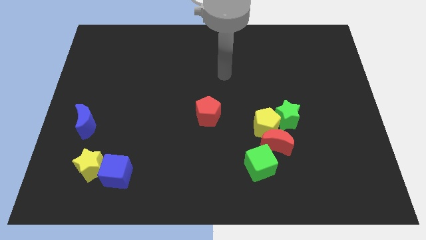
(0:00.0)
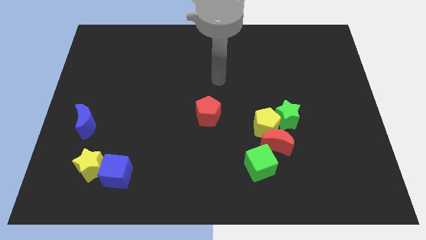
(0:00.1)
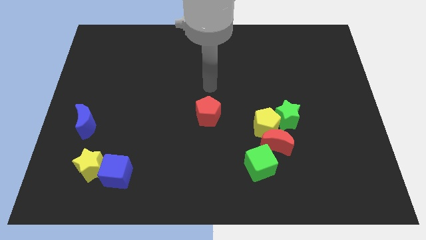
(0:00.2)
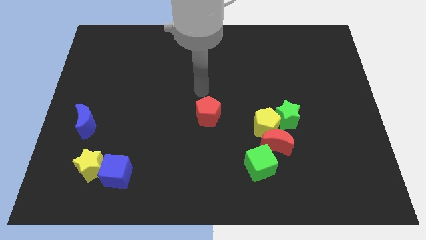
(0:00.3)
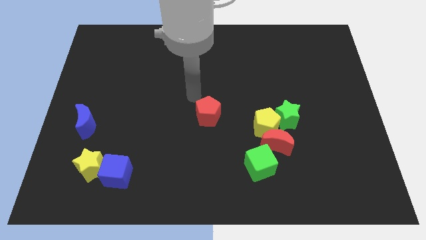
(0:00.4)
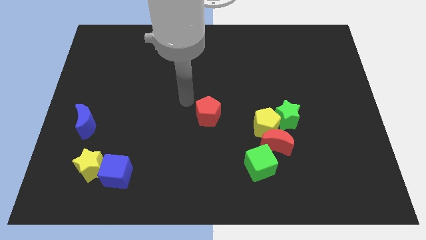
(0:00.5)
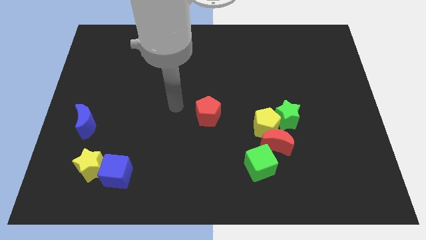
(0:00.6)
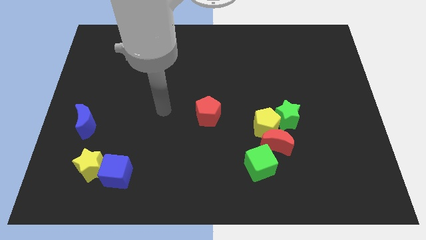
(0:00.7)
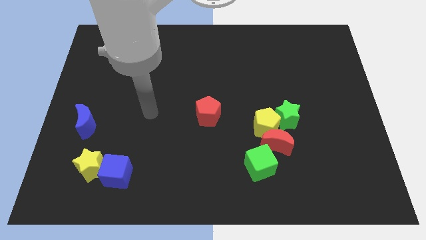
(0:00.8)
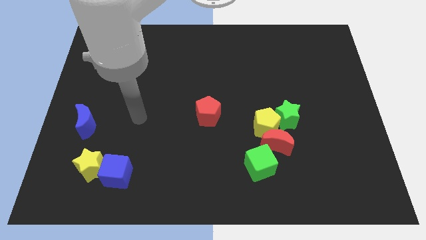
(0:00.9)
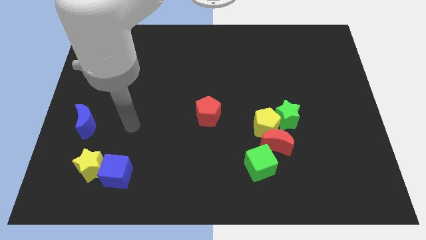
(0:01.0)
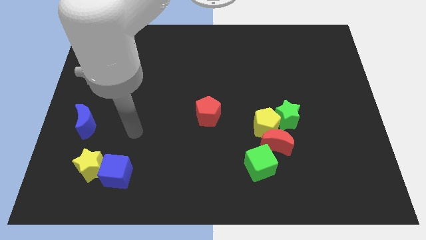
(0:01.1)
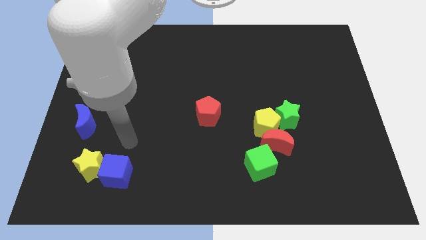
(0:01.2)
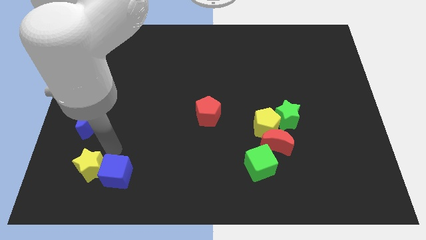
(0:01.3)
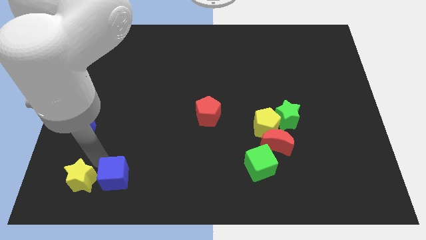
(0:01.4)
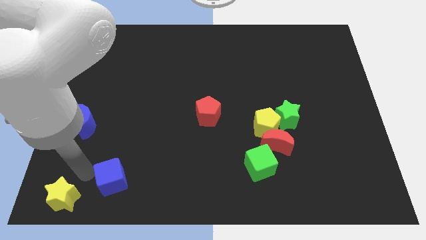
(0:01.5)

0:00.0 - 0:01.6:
move the blue cube away from the yellow star

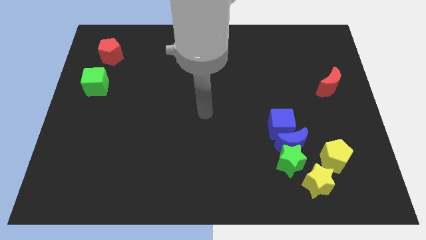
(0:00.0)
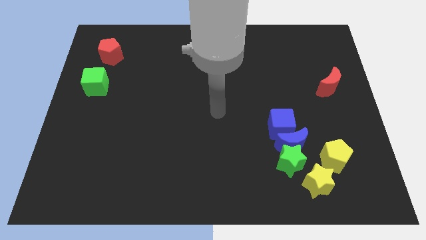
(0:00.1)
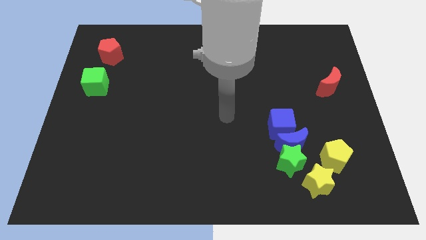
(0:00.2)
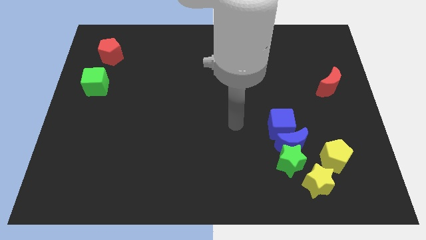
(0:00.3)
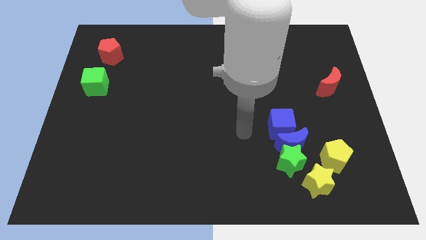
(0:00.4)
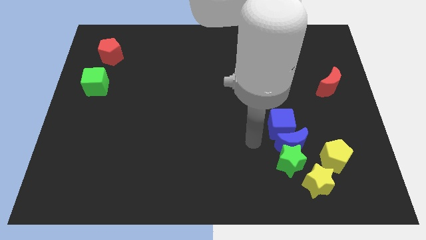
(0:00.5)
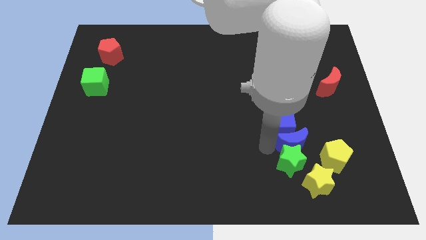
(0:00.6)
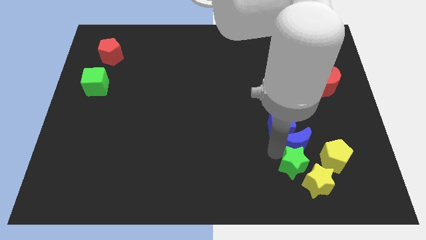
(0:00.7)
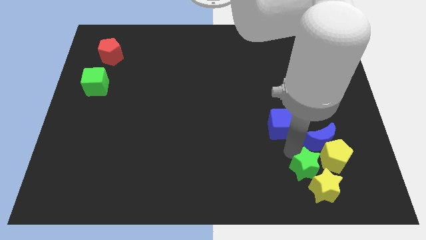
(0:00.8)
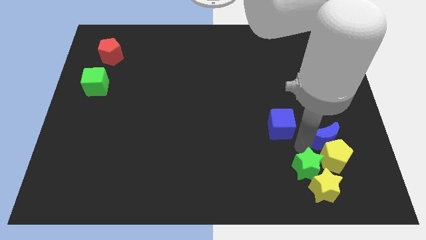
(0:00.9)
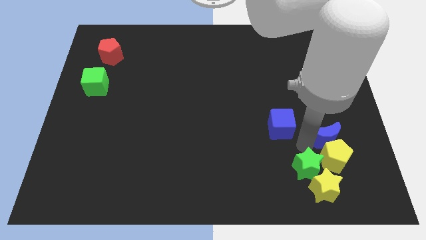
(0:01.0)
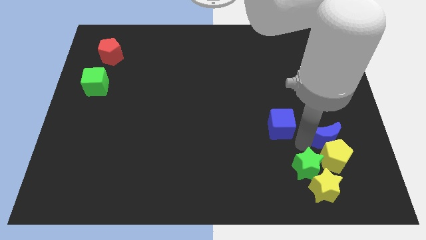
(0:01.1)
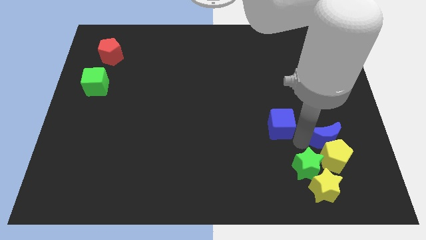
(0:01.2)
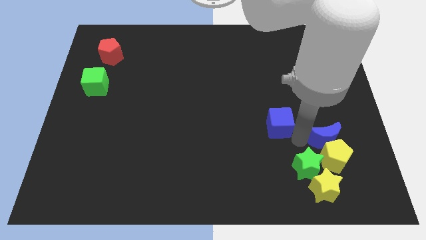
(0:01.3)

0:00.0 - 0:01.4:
move the blue cube away from the blue moon and green star

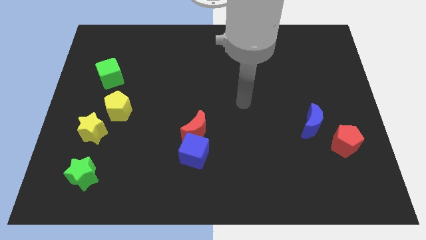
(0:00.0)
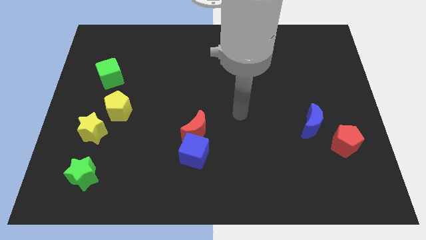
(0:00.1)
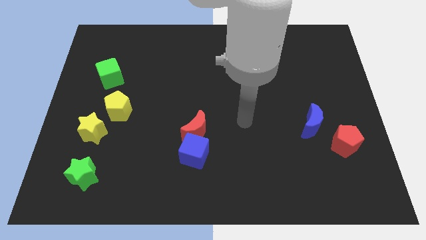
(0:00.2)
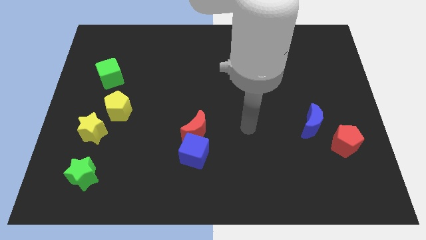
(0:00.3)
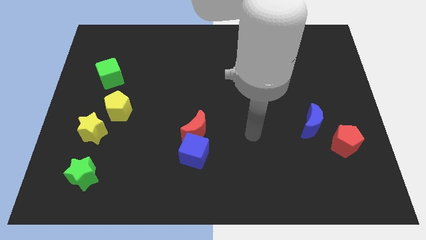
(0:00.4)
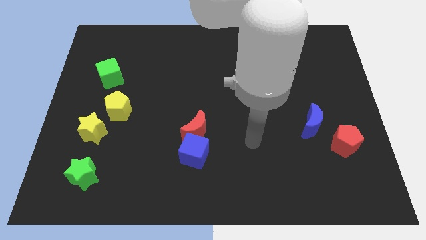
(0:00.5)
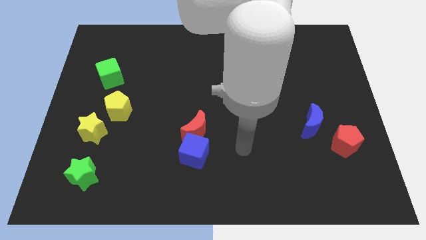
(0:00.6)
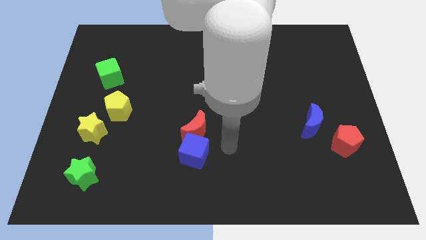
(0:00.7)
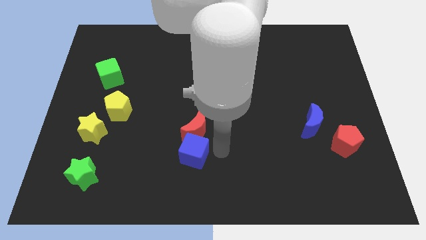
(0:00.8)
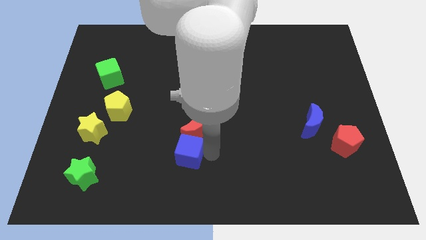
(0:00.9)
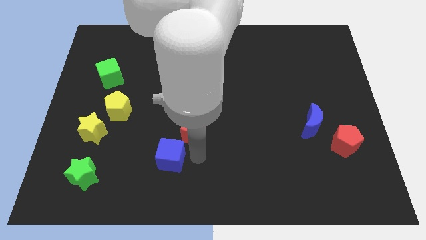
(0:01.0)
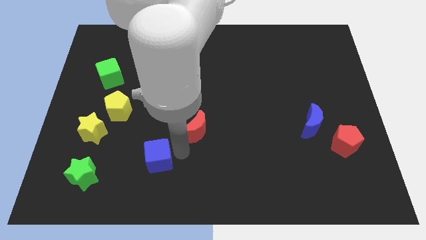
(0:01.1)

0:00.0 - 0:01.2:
move the red moon away from the blue cube

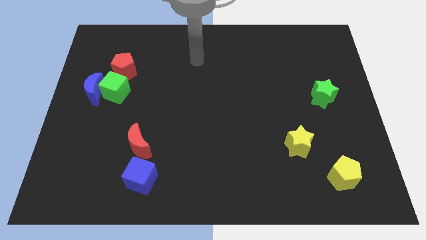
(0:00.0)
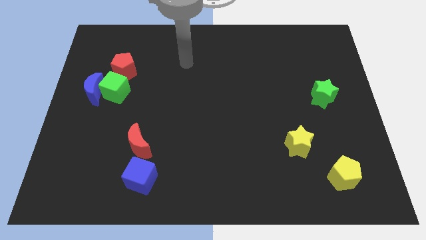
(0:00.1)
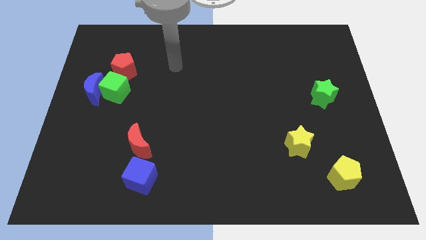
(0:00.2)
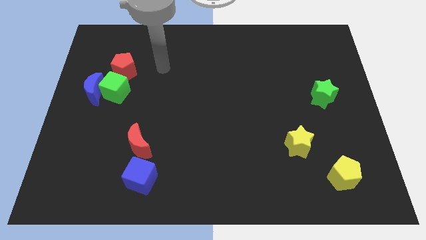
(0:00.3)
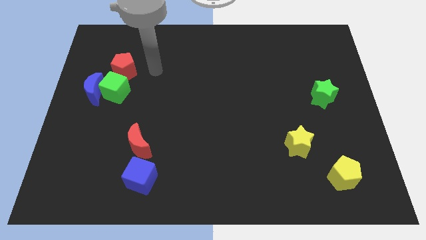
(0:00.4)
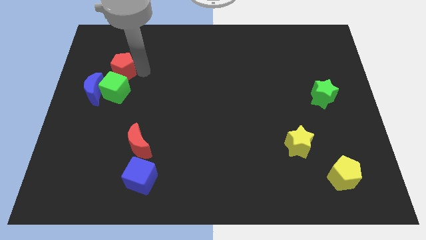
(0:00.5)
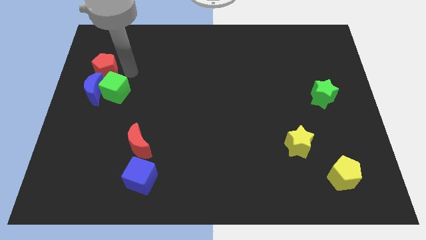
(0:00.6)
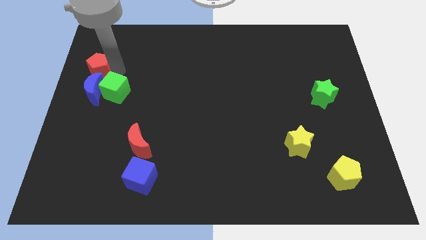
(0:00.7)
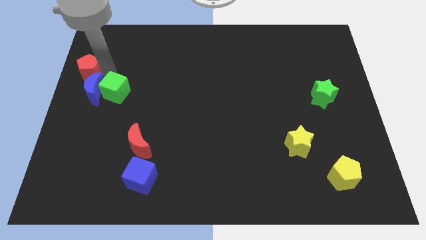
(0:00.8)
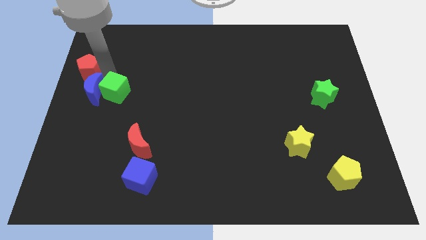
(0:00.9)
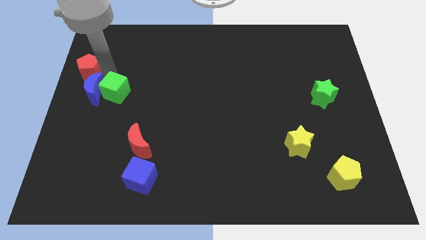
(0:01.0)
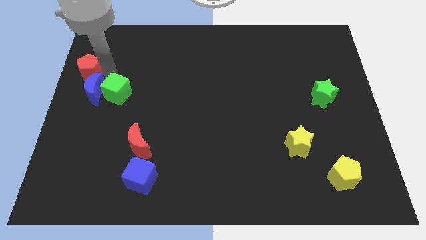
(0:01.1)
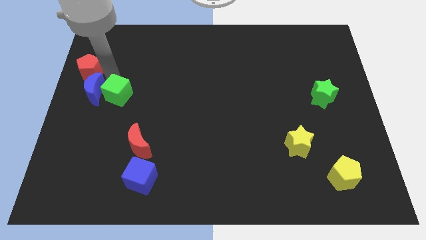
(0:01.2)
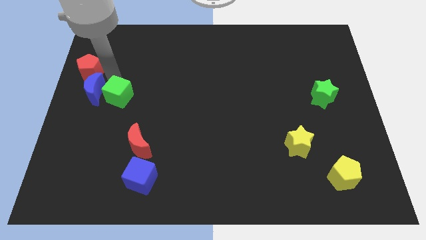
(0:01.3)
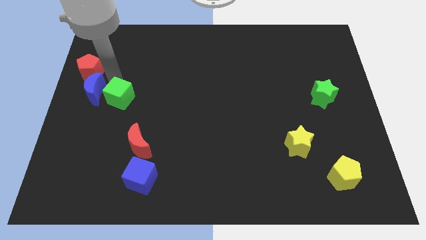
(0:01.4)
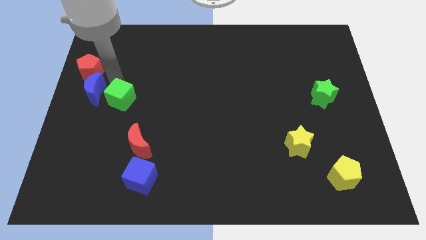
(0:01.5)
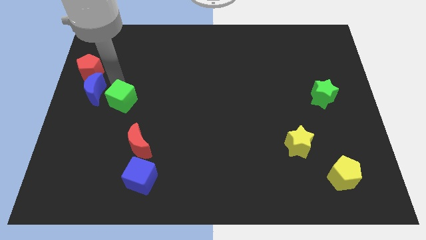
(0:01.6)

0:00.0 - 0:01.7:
pull the green cube apart from the blue moon and red pentagon

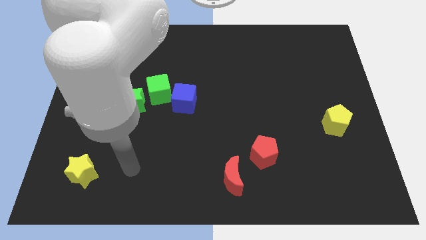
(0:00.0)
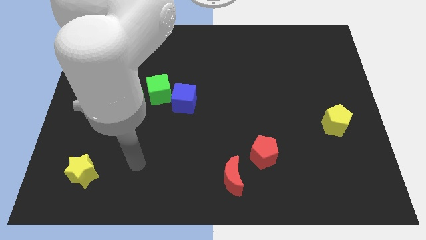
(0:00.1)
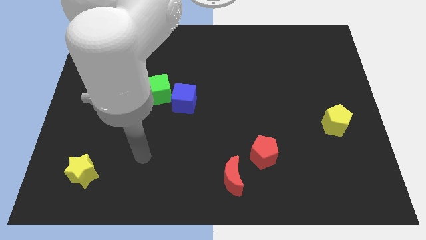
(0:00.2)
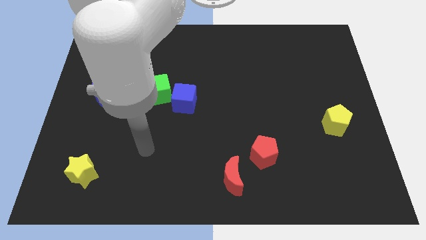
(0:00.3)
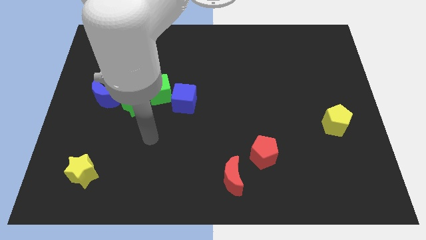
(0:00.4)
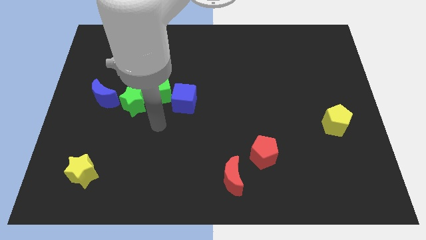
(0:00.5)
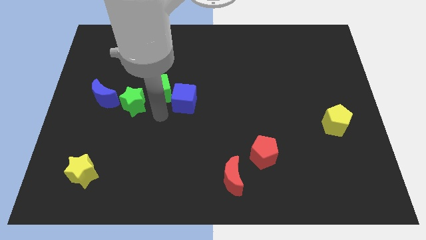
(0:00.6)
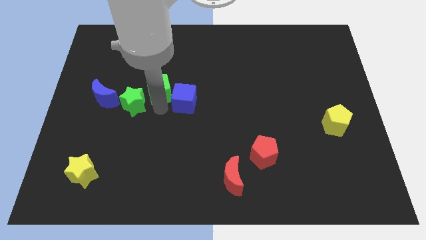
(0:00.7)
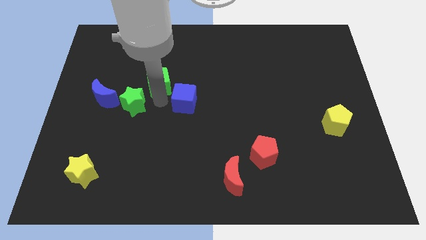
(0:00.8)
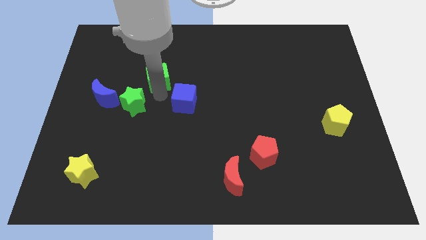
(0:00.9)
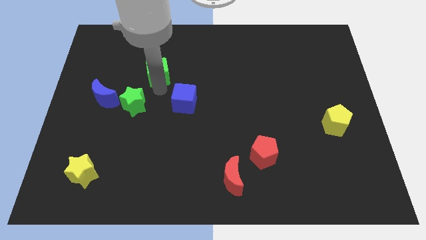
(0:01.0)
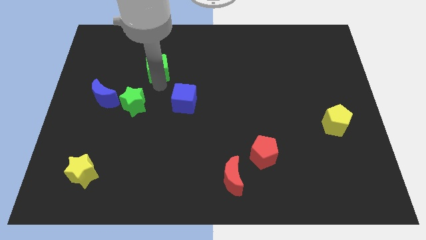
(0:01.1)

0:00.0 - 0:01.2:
separate the green cube from the green star and blue cube

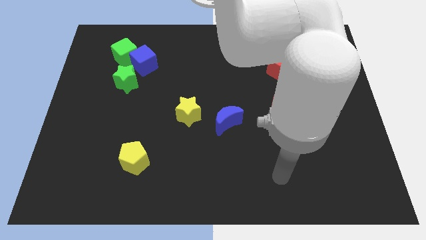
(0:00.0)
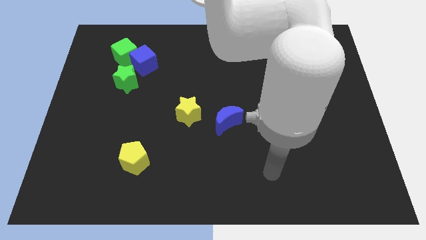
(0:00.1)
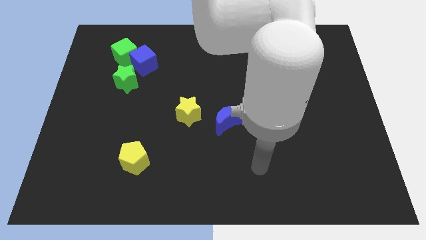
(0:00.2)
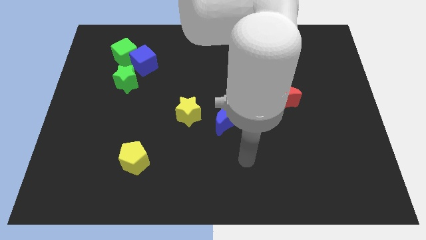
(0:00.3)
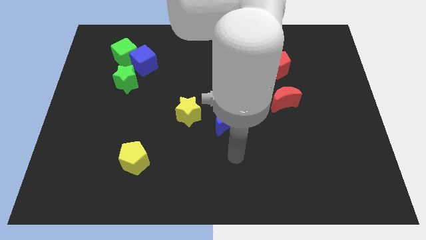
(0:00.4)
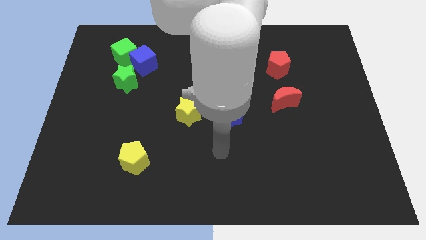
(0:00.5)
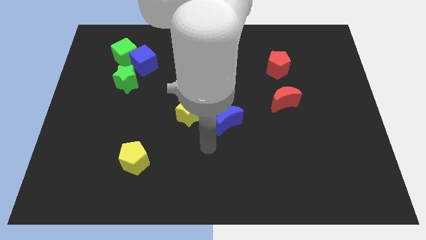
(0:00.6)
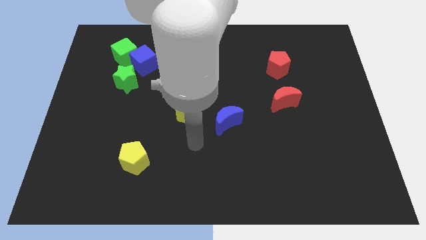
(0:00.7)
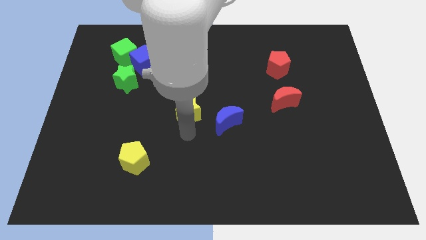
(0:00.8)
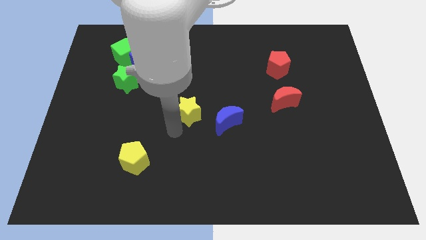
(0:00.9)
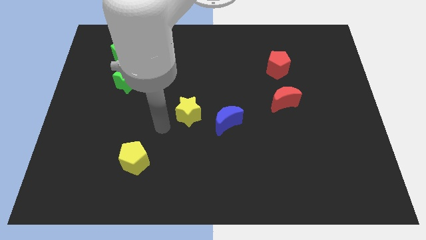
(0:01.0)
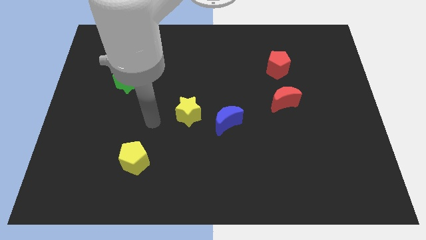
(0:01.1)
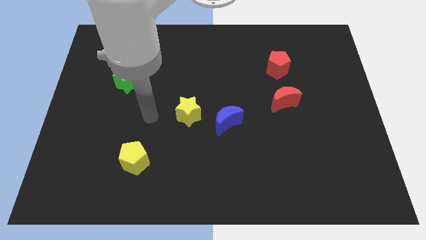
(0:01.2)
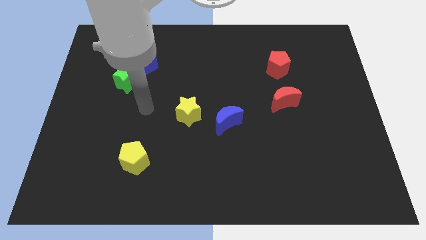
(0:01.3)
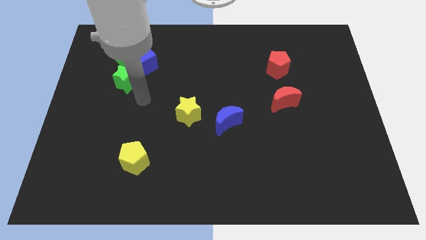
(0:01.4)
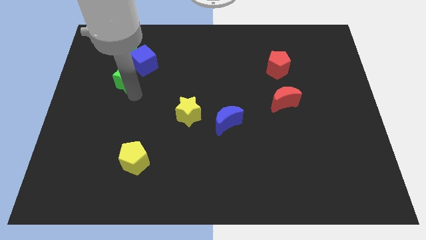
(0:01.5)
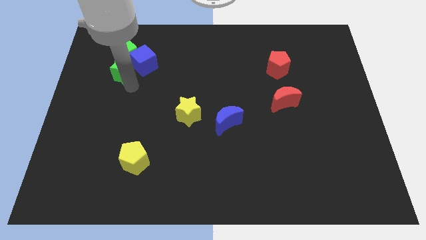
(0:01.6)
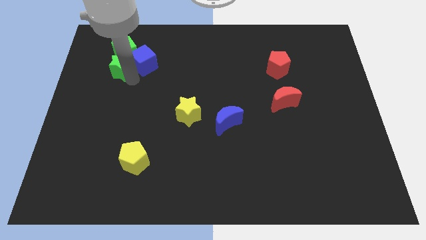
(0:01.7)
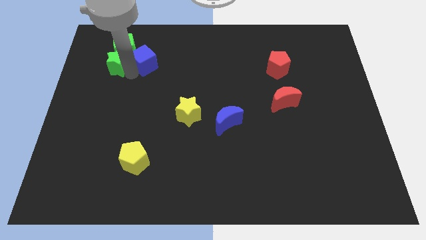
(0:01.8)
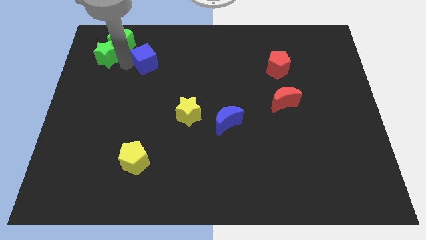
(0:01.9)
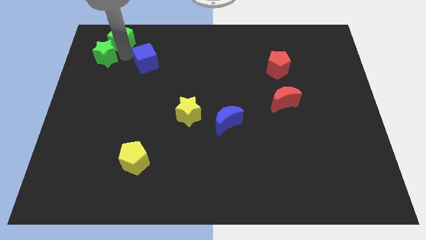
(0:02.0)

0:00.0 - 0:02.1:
move the blue cube away from the green cube and green star
